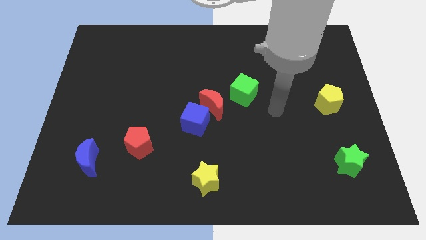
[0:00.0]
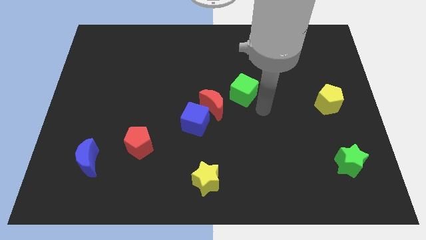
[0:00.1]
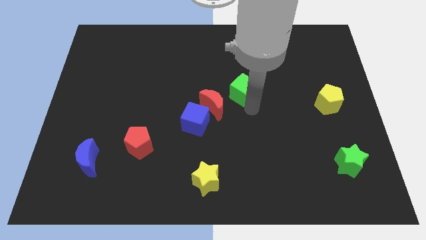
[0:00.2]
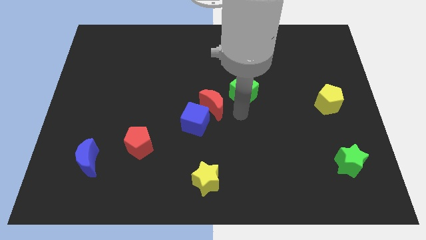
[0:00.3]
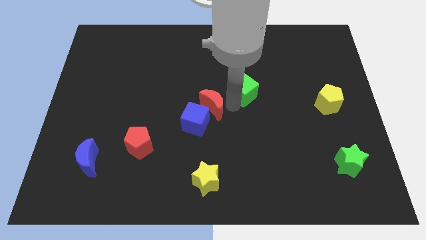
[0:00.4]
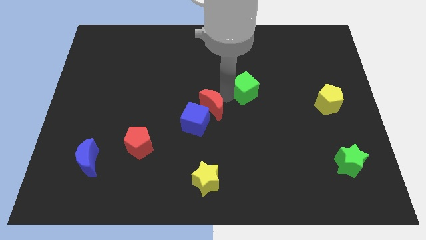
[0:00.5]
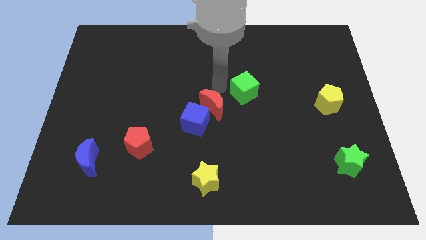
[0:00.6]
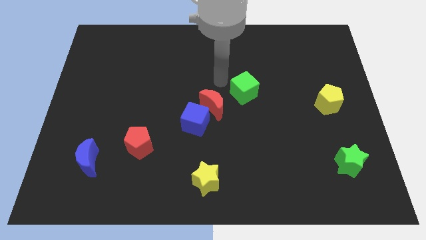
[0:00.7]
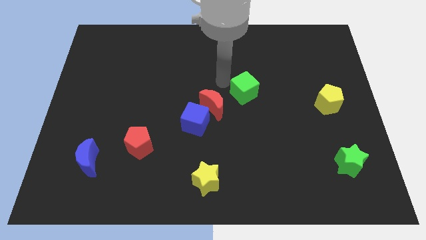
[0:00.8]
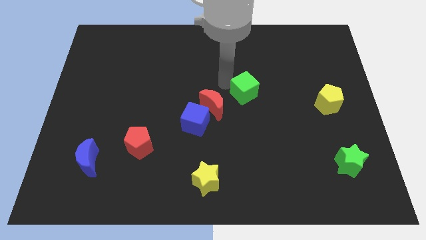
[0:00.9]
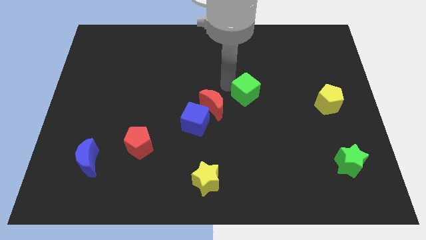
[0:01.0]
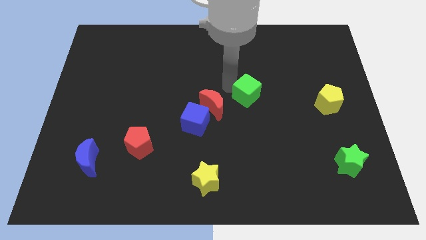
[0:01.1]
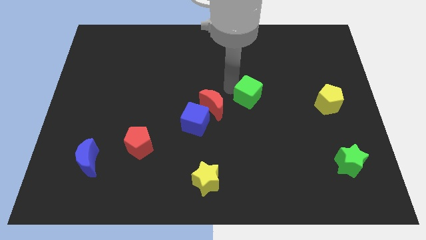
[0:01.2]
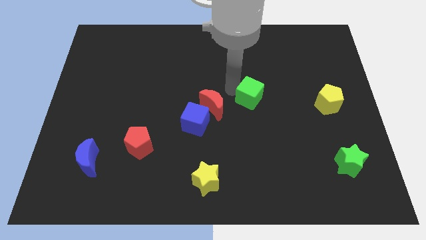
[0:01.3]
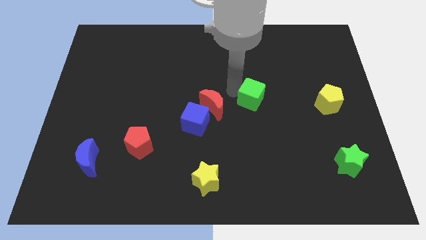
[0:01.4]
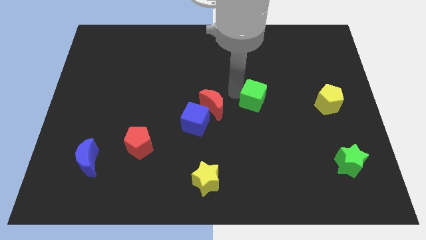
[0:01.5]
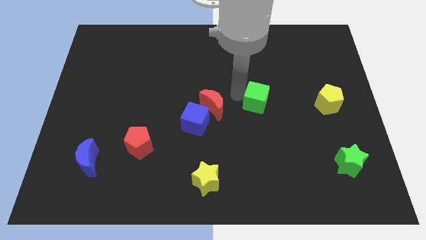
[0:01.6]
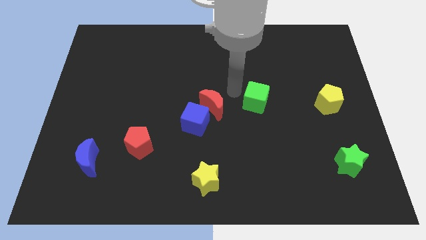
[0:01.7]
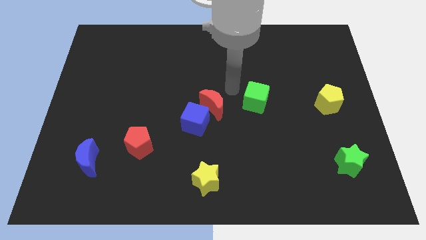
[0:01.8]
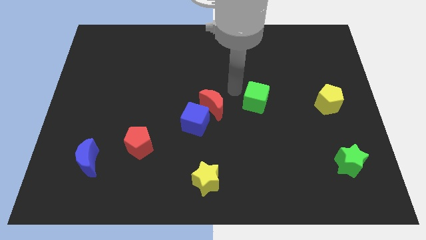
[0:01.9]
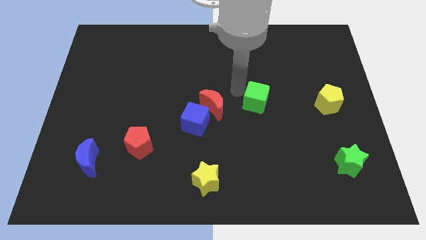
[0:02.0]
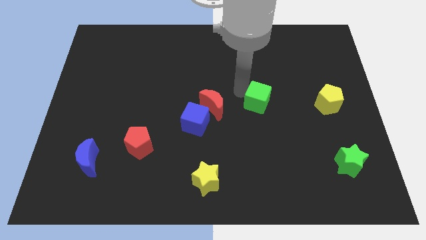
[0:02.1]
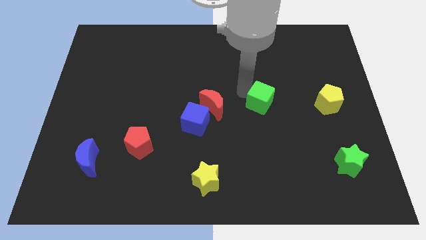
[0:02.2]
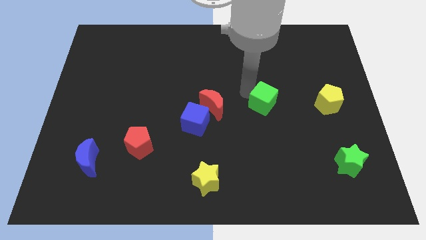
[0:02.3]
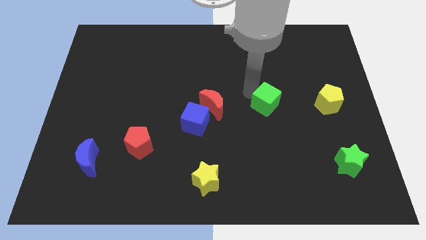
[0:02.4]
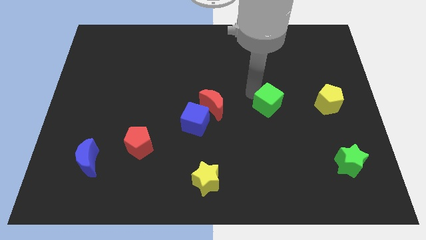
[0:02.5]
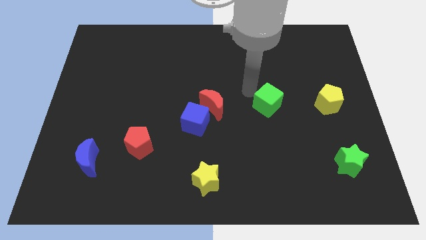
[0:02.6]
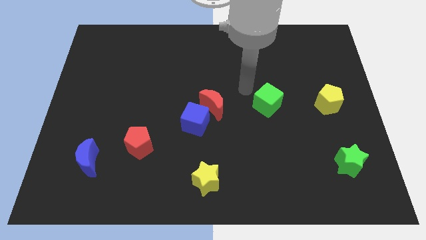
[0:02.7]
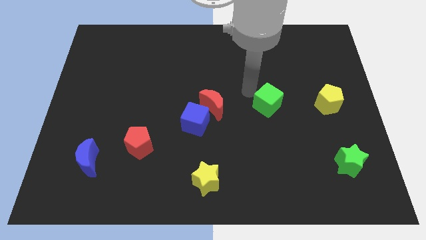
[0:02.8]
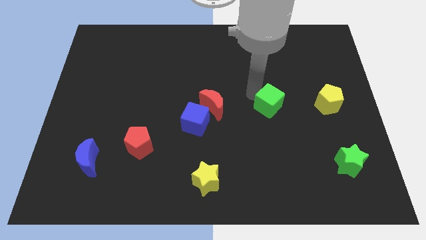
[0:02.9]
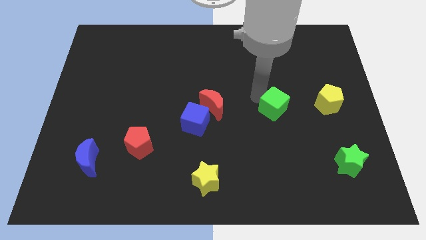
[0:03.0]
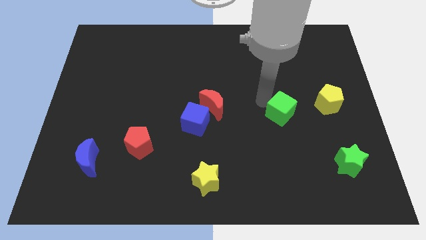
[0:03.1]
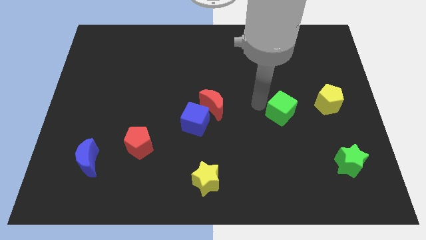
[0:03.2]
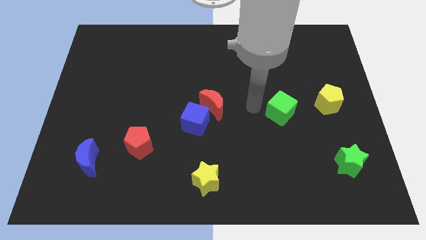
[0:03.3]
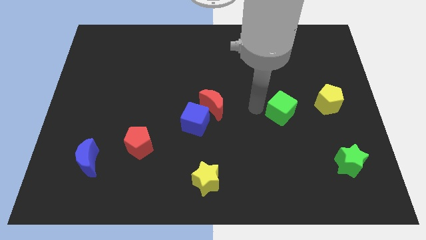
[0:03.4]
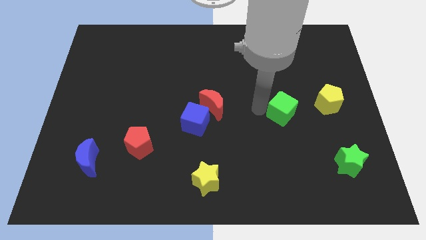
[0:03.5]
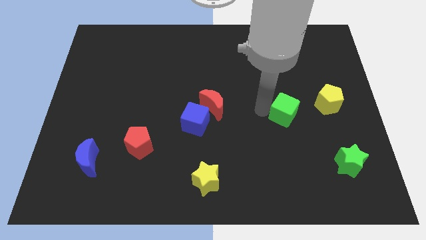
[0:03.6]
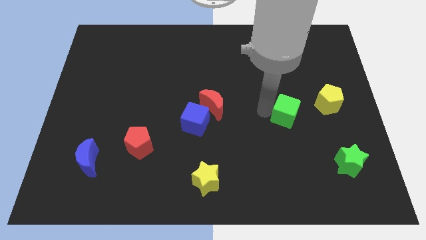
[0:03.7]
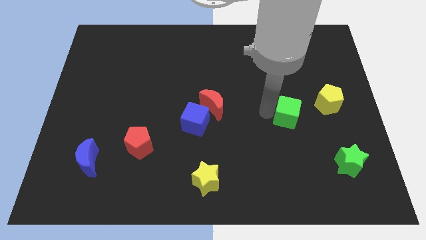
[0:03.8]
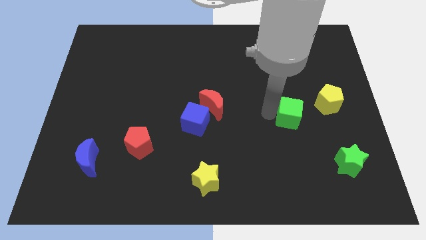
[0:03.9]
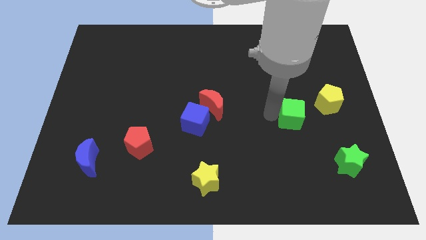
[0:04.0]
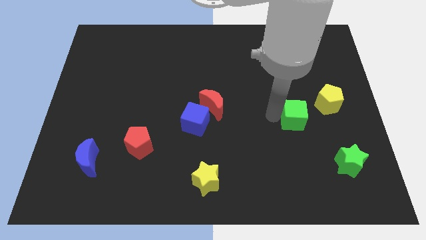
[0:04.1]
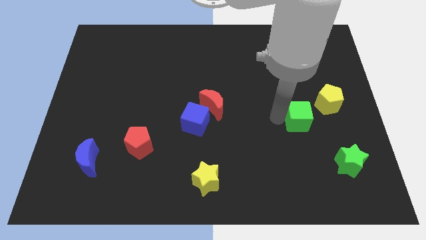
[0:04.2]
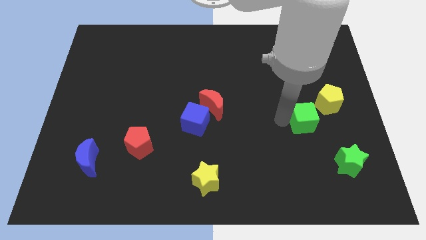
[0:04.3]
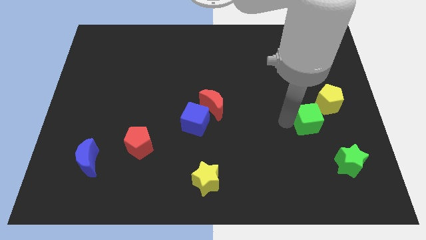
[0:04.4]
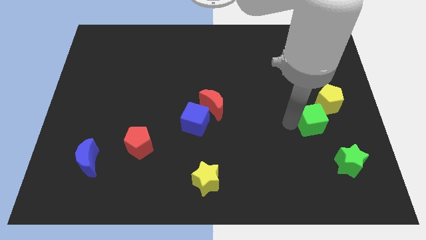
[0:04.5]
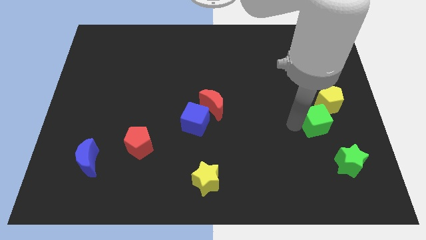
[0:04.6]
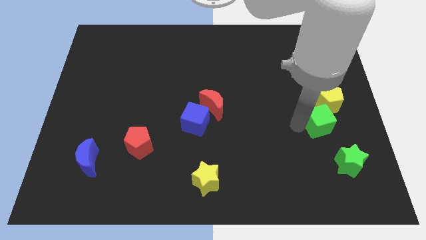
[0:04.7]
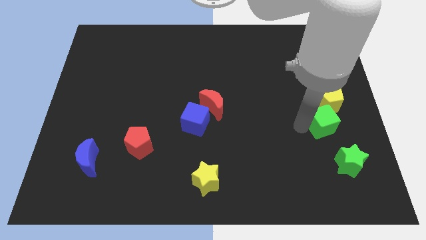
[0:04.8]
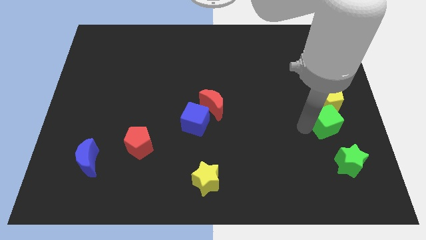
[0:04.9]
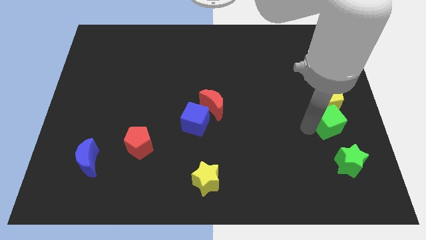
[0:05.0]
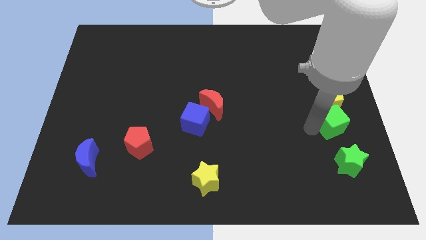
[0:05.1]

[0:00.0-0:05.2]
put the green cube to the center right
